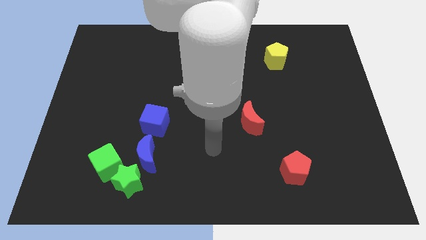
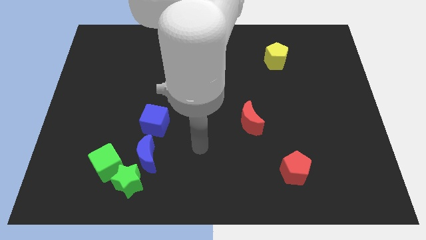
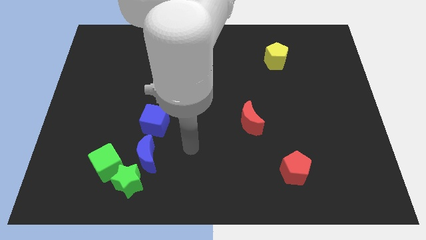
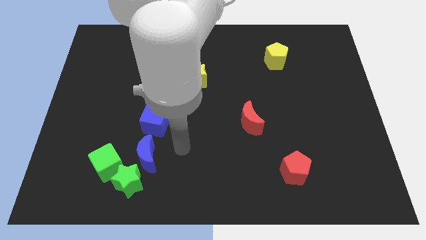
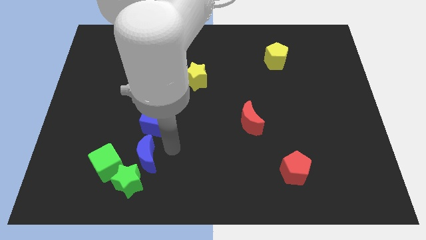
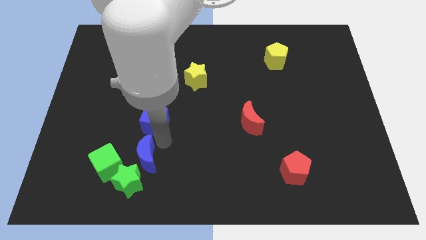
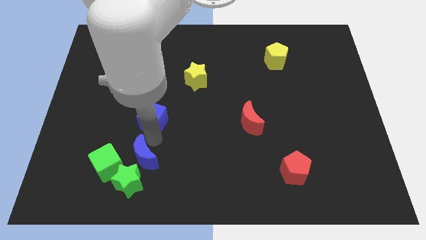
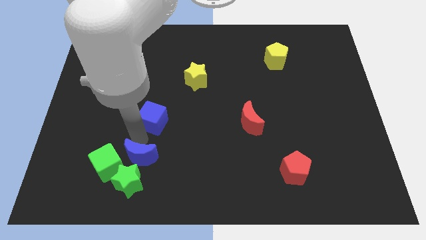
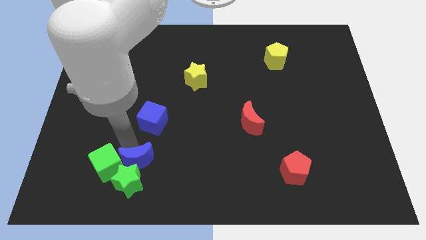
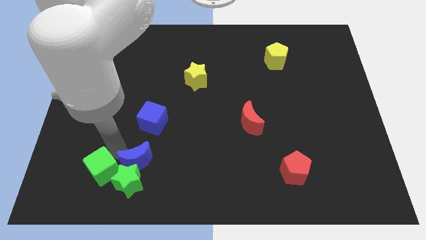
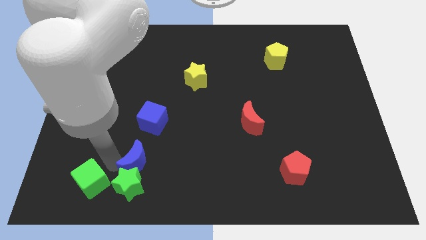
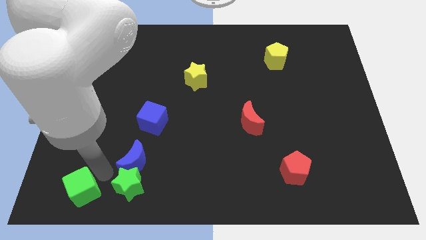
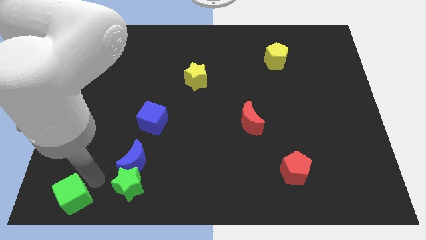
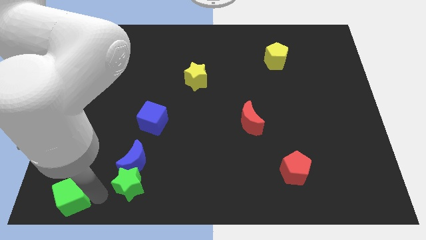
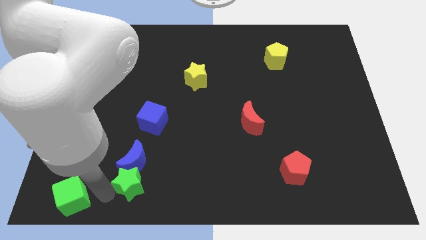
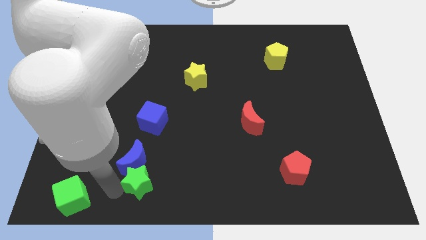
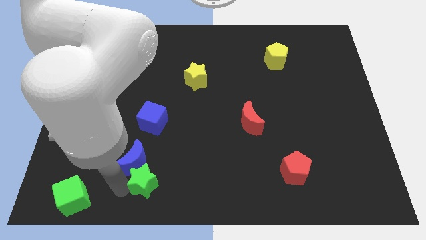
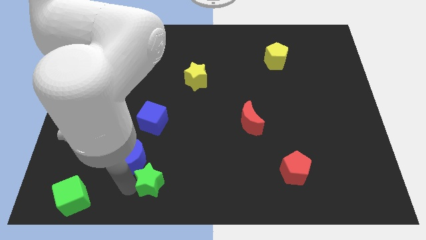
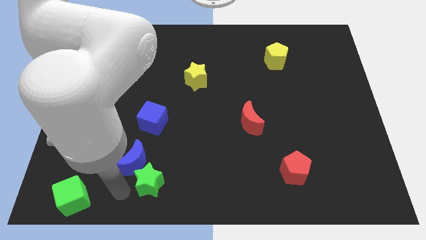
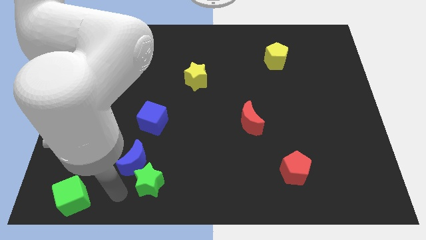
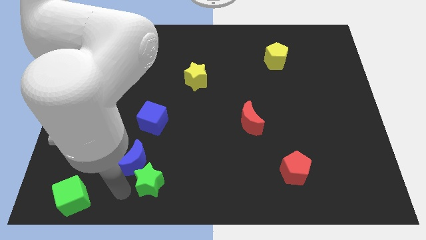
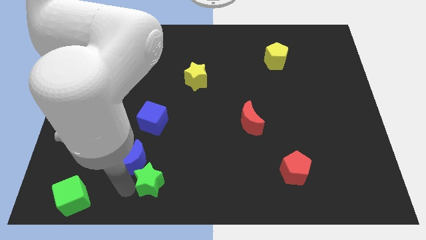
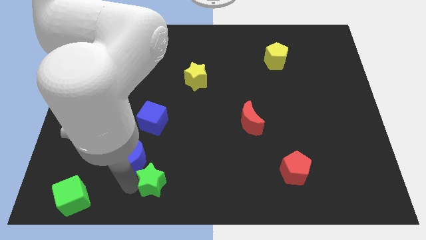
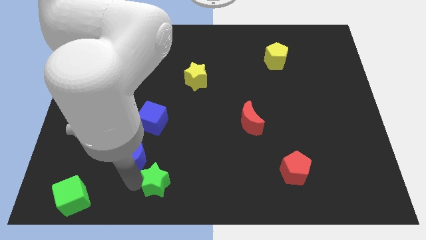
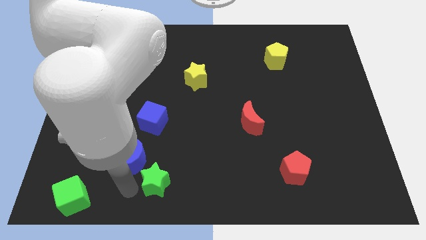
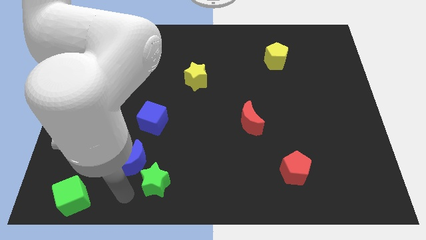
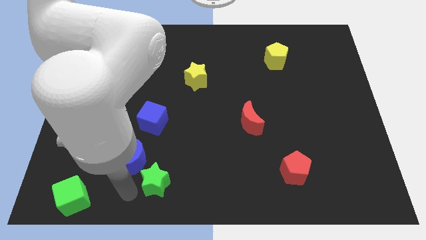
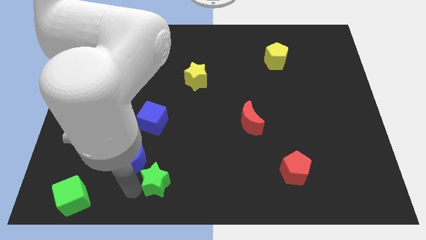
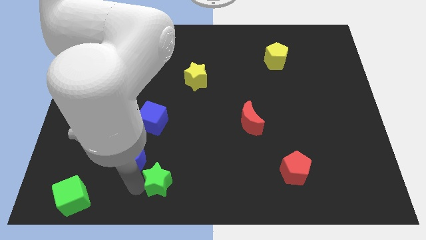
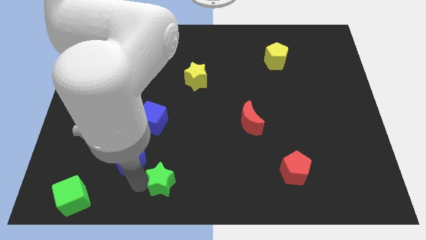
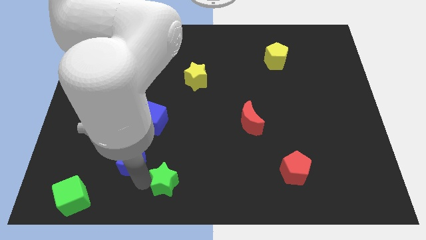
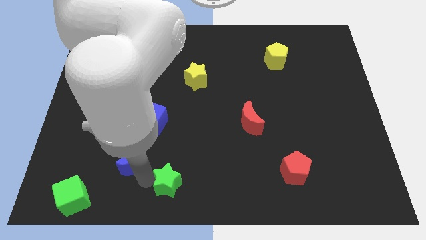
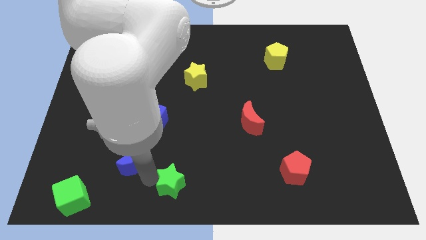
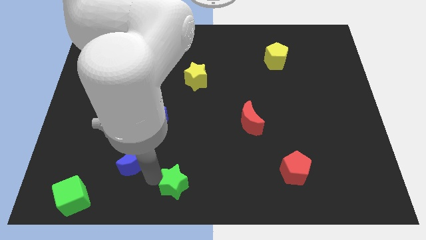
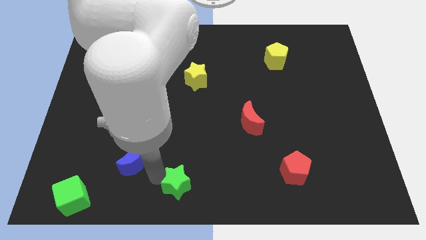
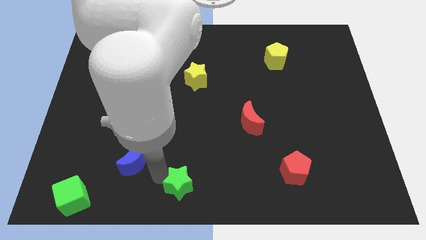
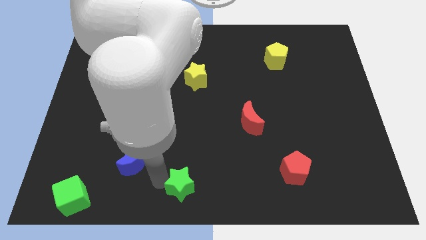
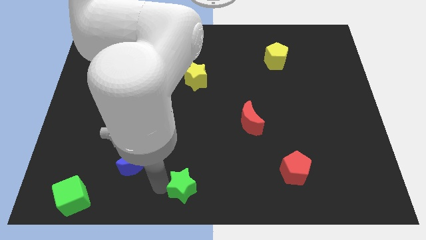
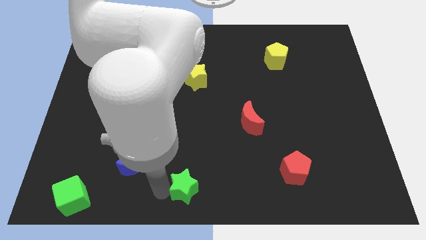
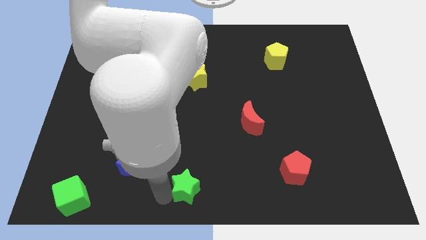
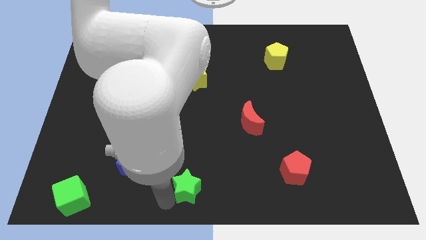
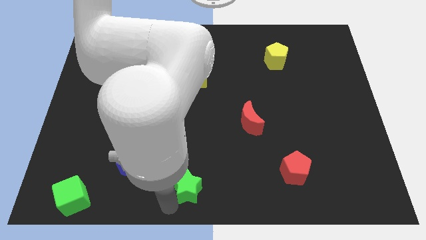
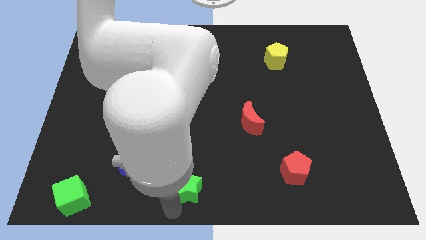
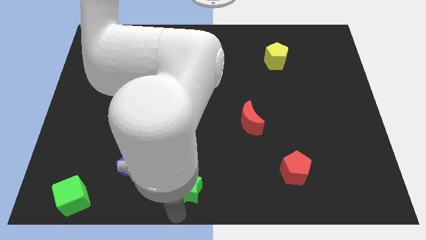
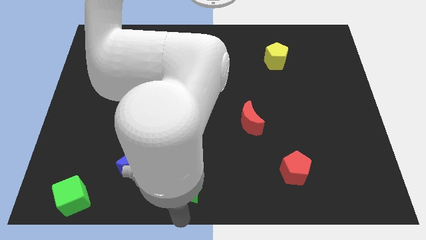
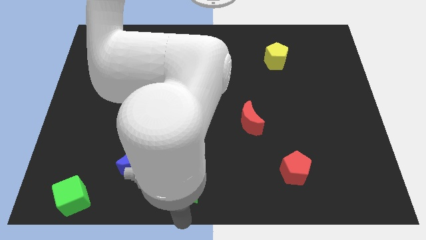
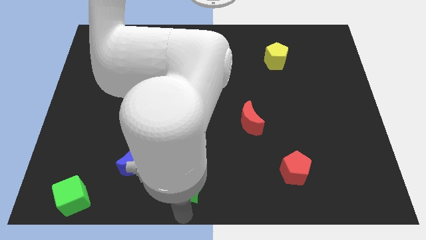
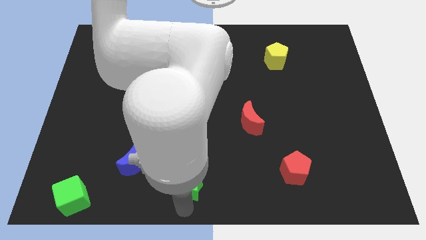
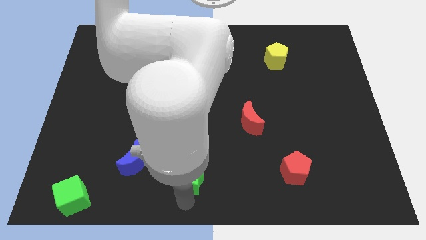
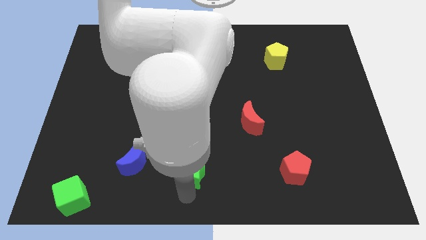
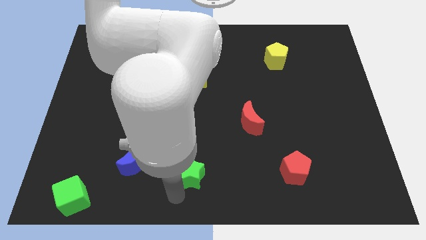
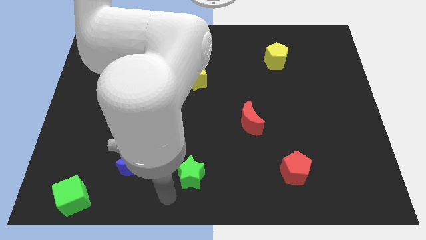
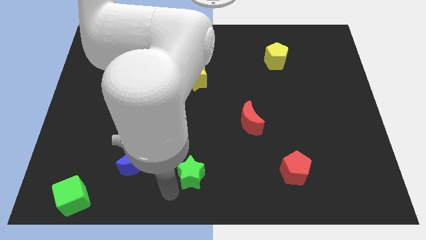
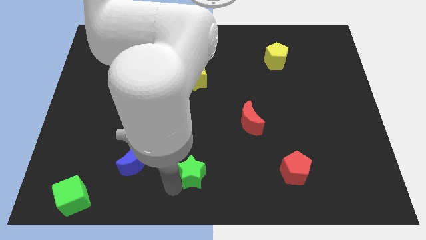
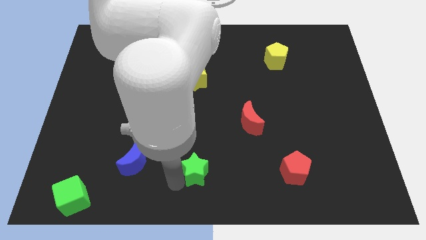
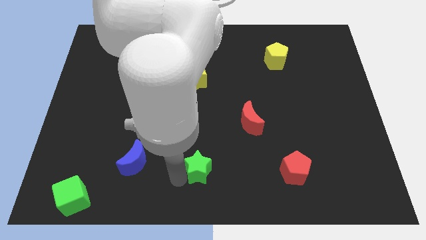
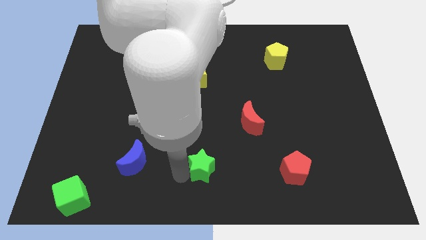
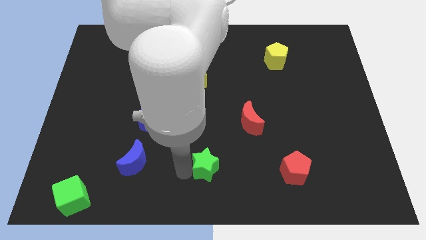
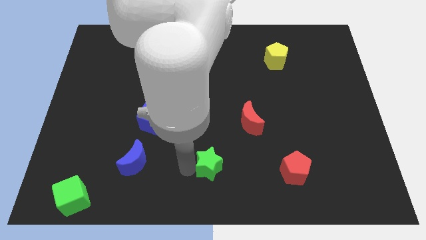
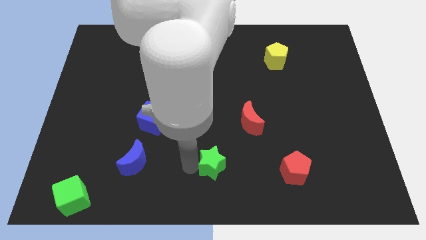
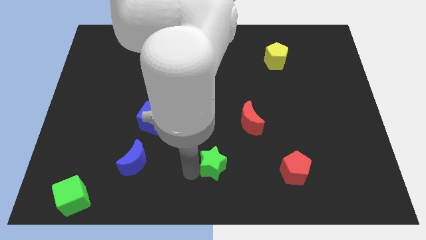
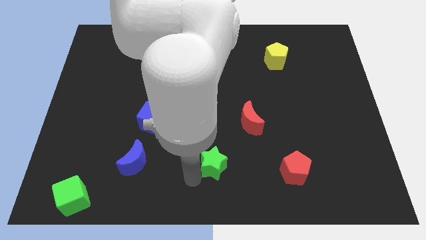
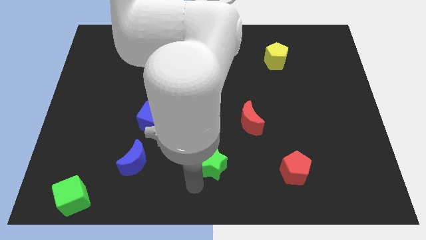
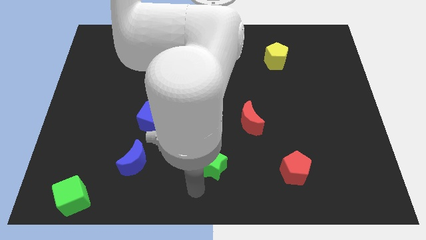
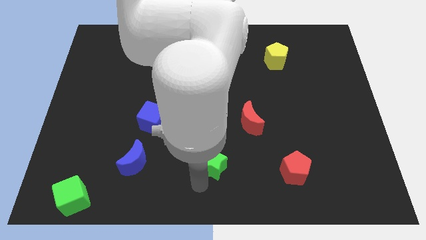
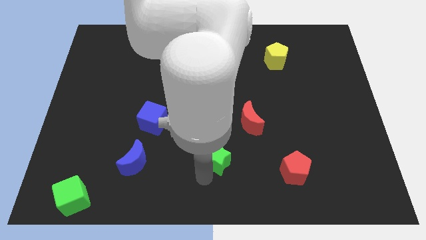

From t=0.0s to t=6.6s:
slide the green star to the bottom left of the red moon

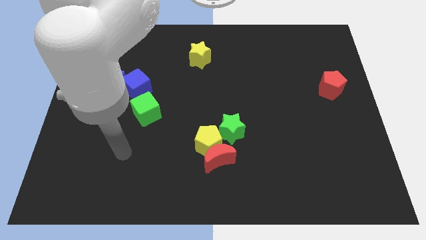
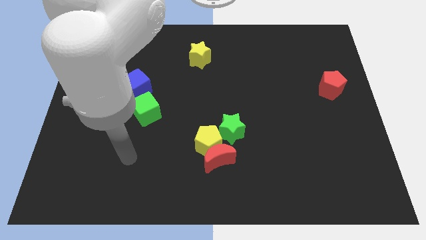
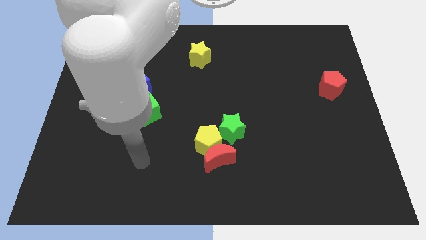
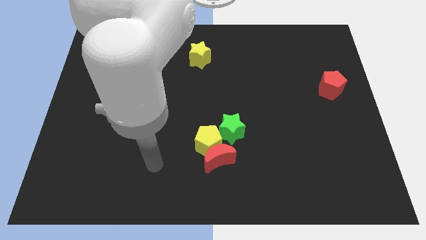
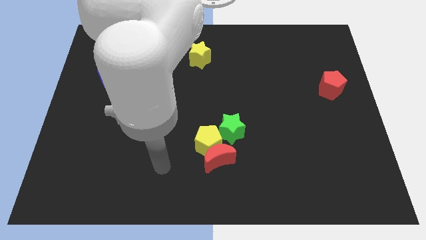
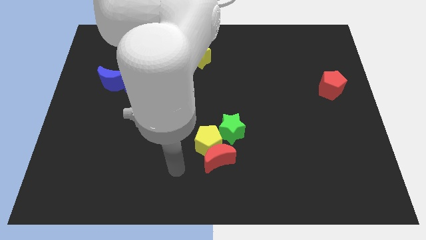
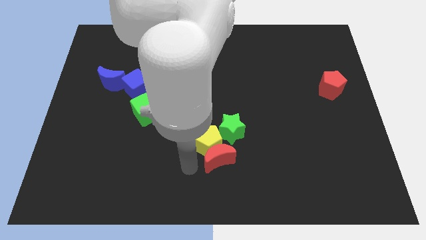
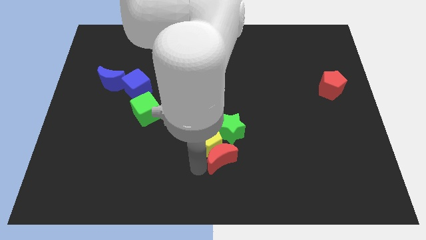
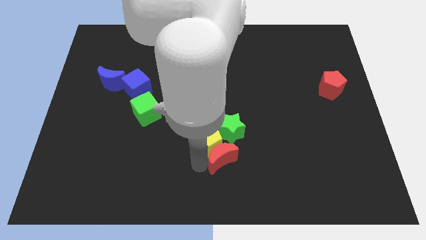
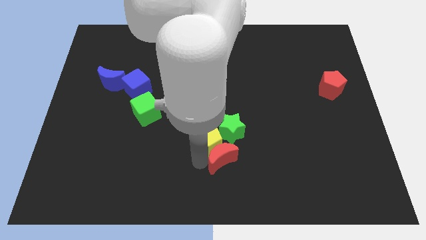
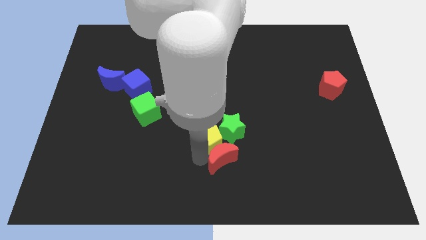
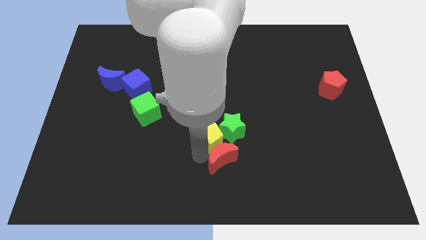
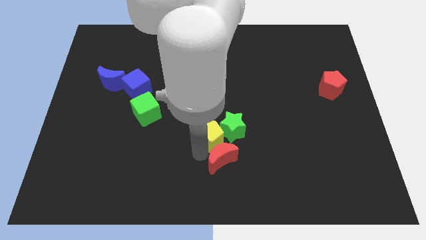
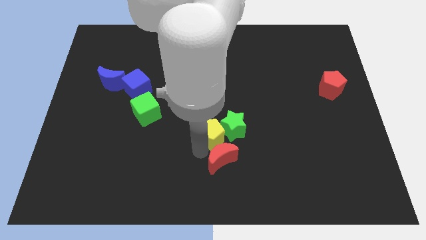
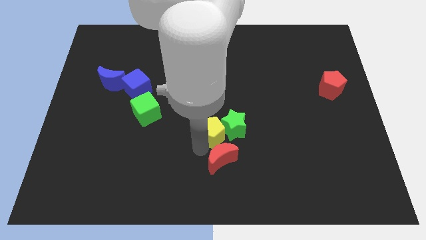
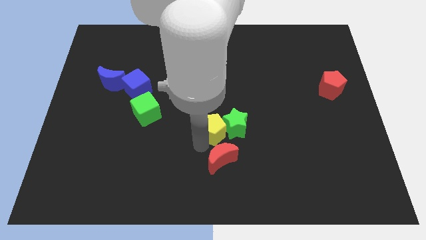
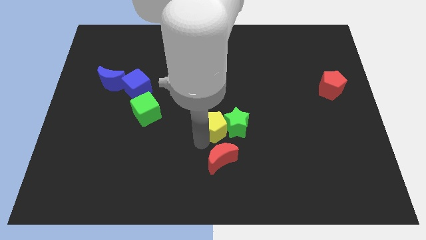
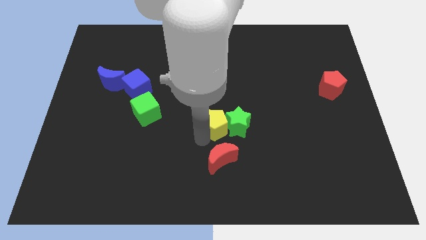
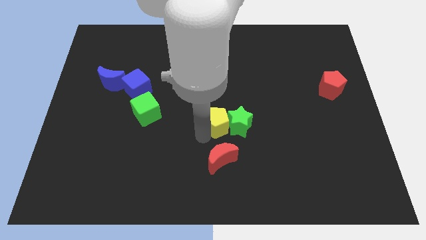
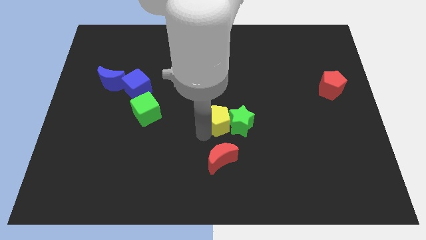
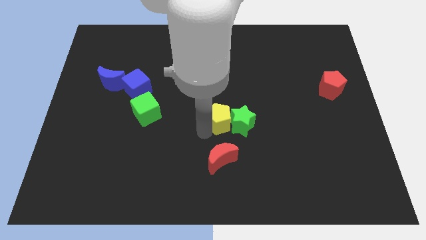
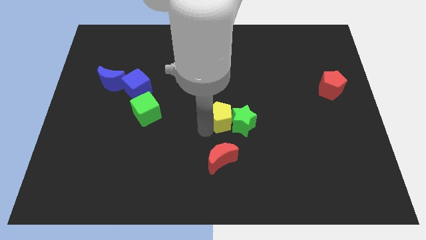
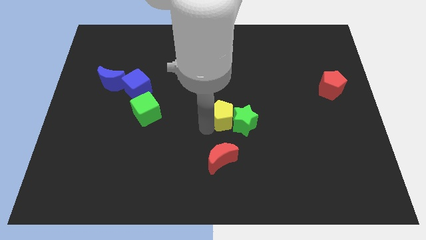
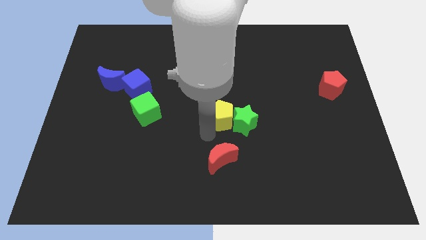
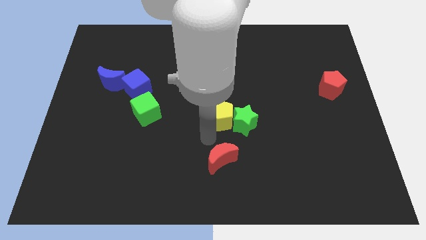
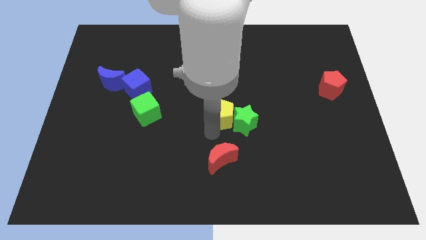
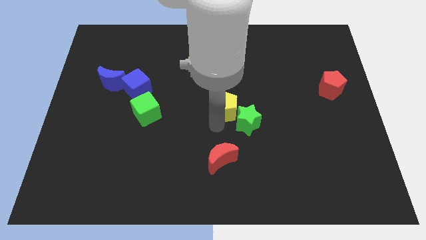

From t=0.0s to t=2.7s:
push the yellow pentagon to the top side of the green star
